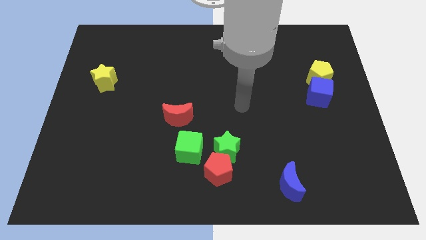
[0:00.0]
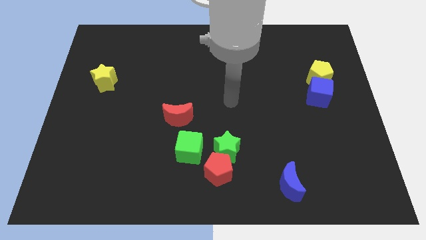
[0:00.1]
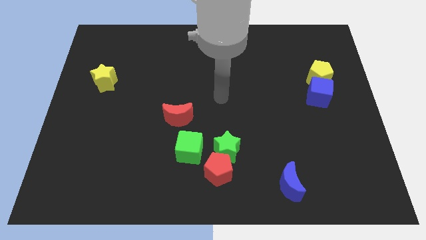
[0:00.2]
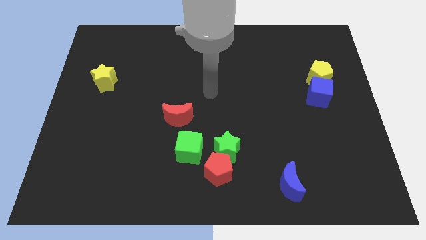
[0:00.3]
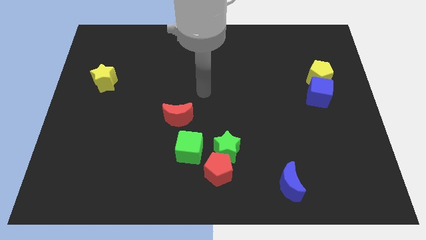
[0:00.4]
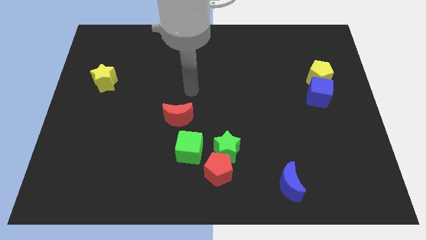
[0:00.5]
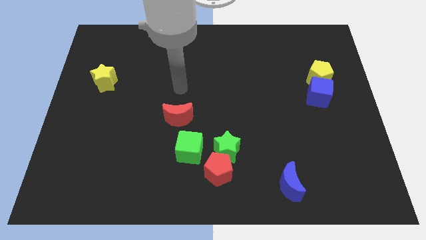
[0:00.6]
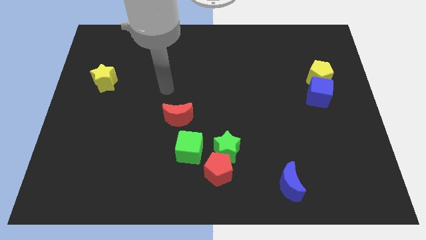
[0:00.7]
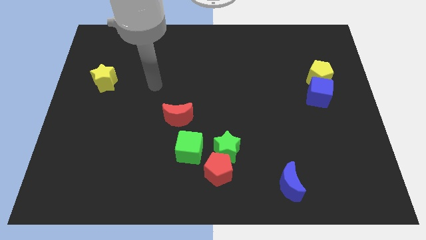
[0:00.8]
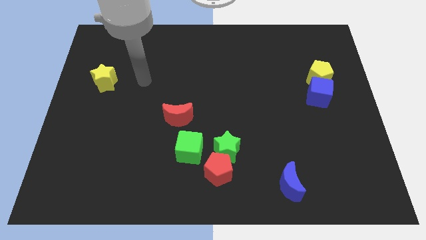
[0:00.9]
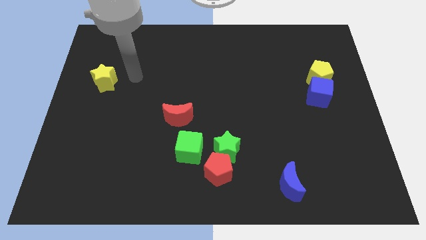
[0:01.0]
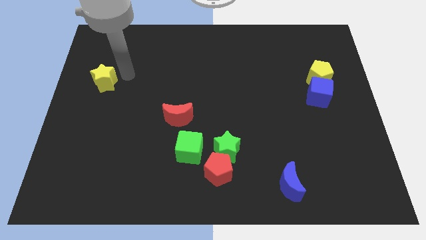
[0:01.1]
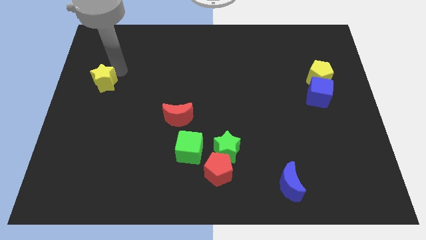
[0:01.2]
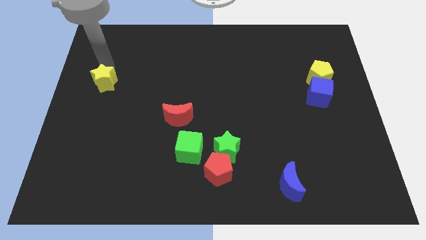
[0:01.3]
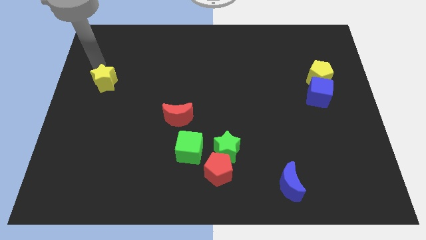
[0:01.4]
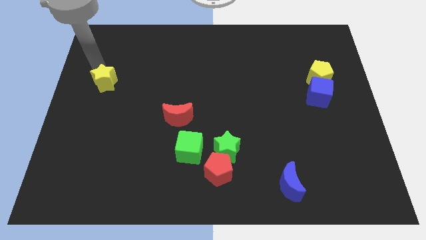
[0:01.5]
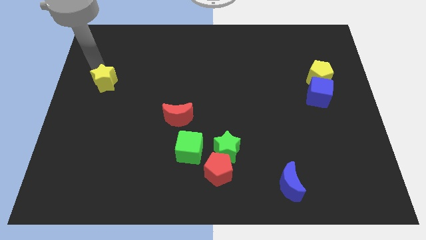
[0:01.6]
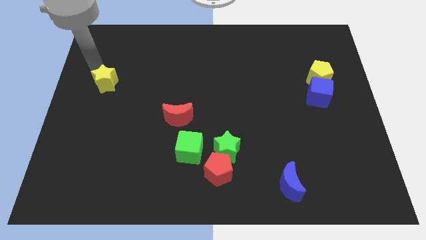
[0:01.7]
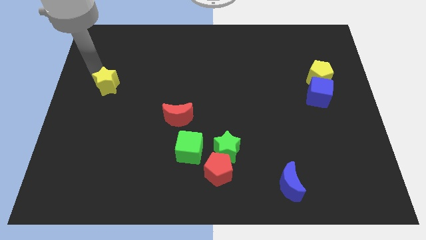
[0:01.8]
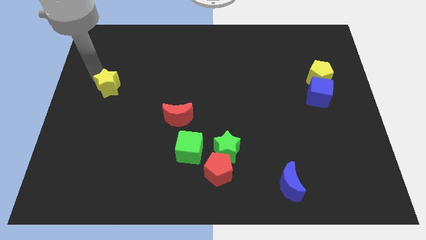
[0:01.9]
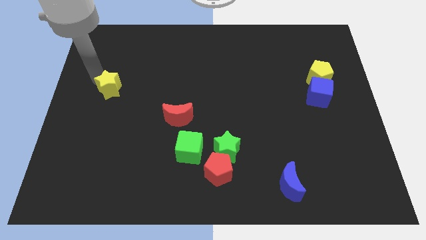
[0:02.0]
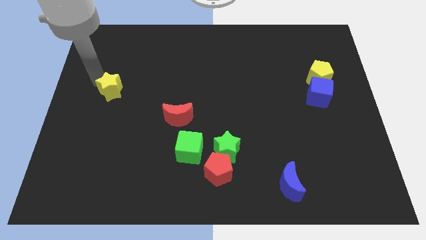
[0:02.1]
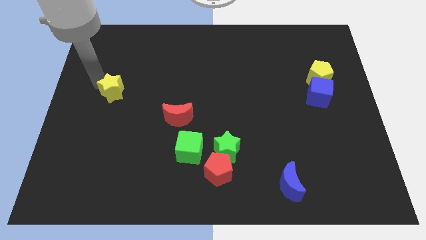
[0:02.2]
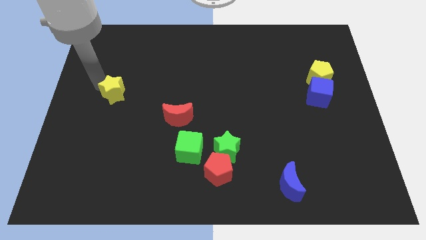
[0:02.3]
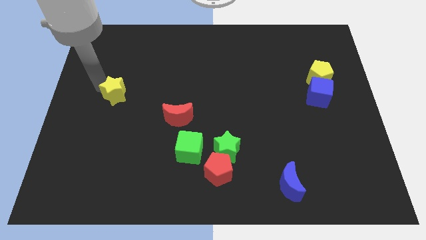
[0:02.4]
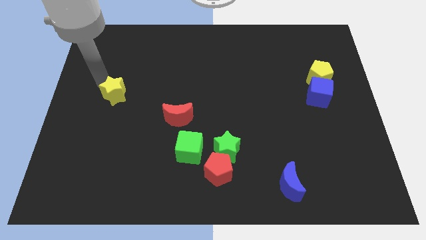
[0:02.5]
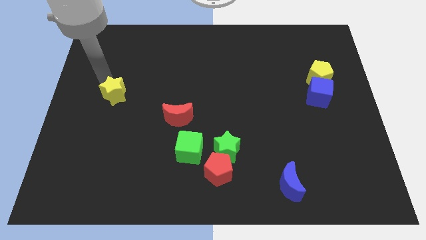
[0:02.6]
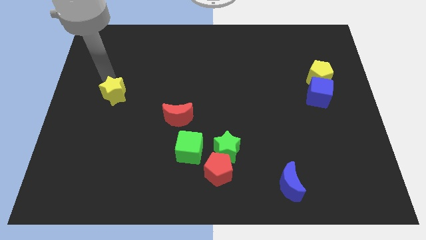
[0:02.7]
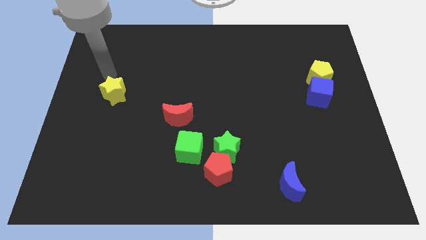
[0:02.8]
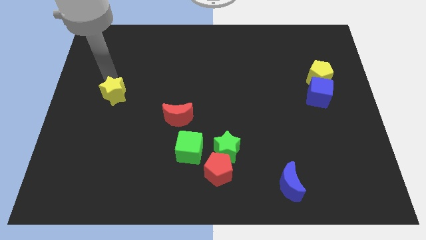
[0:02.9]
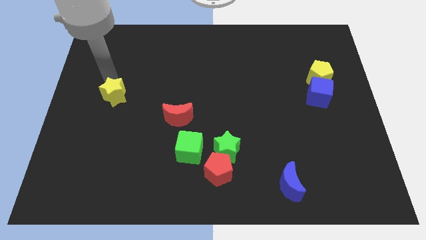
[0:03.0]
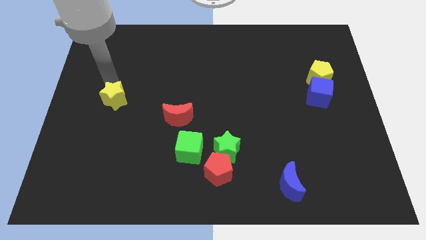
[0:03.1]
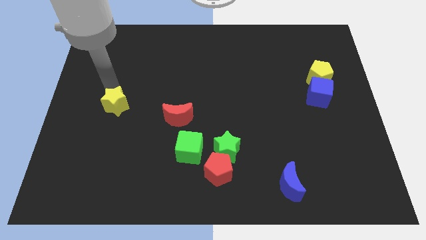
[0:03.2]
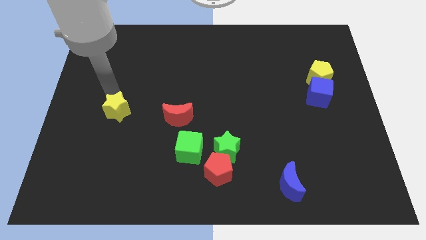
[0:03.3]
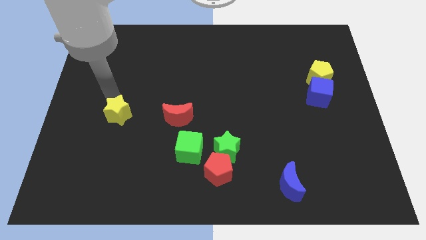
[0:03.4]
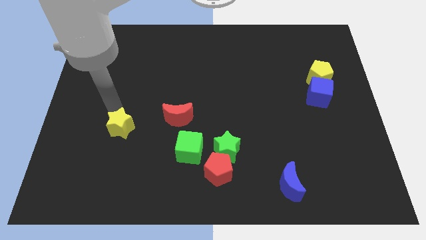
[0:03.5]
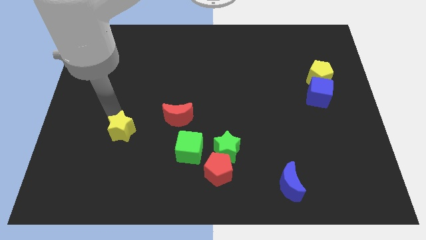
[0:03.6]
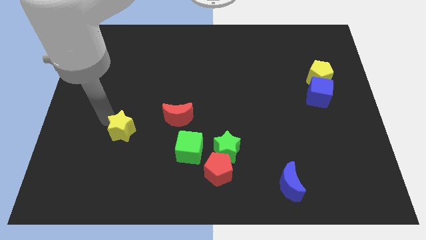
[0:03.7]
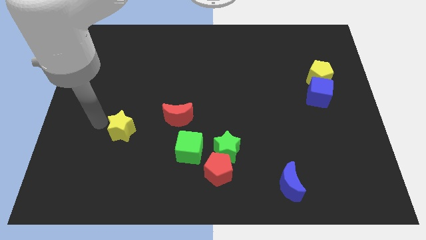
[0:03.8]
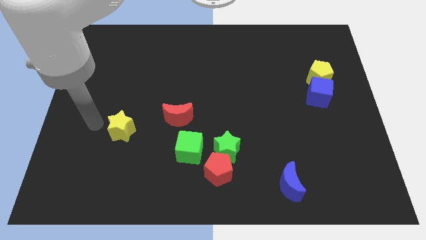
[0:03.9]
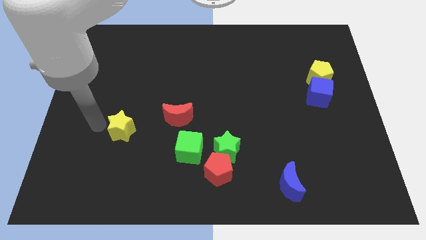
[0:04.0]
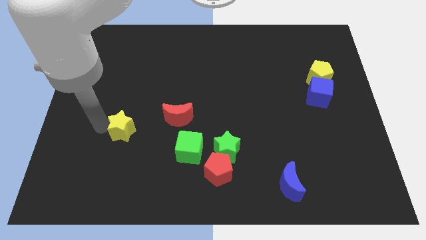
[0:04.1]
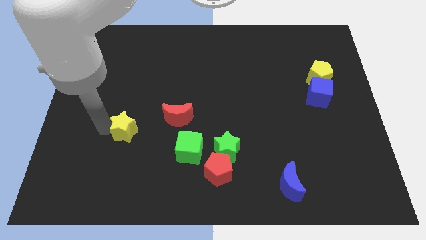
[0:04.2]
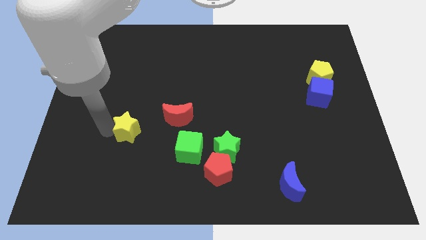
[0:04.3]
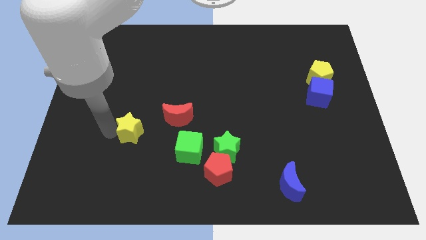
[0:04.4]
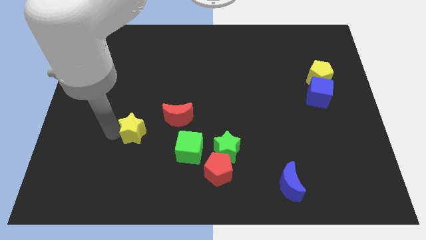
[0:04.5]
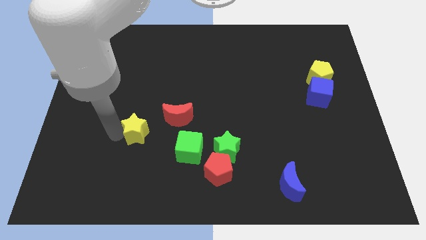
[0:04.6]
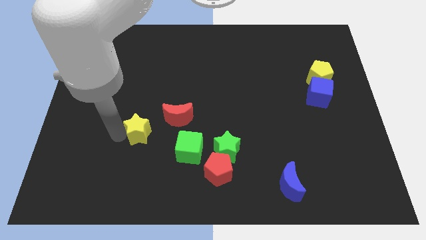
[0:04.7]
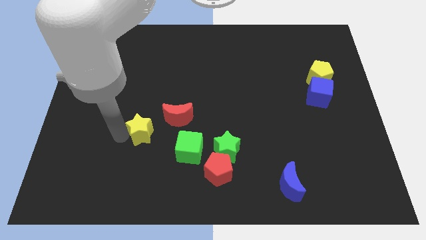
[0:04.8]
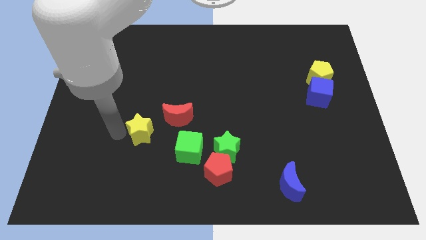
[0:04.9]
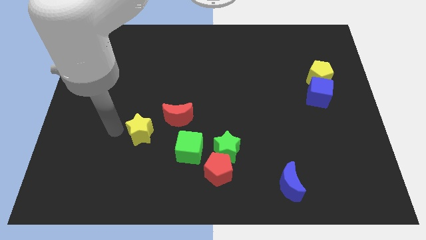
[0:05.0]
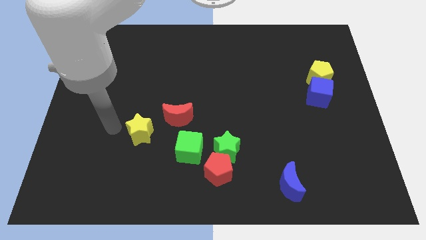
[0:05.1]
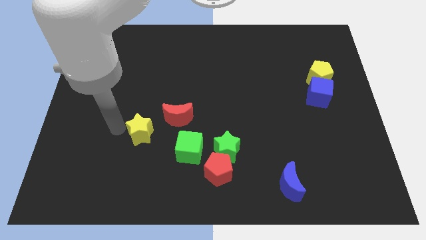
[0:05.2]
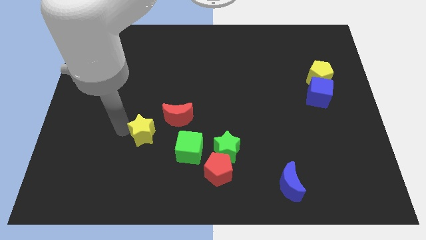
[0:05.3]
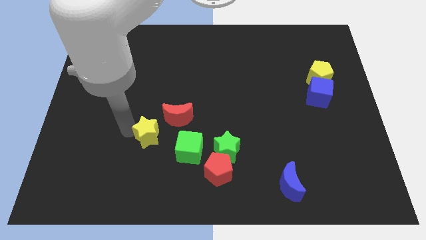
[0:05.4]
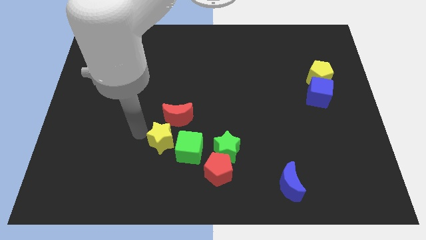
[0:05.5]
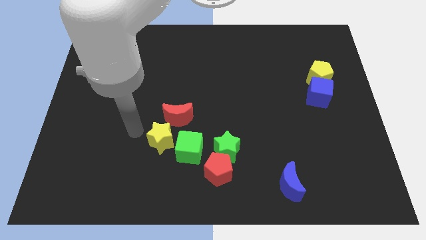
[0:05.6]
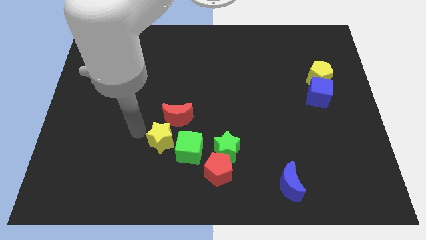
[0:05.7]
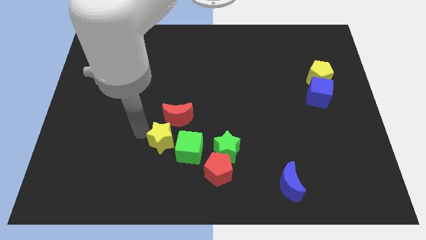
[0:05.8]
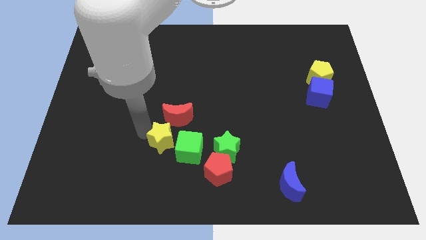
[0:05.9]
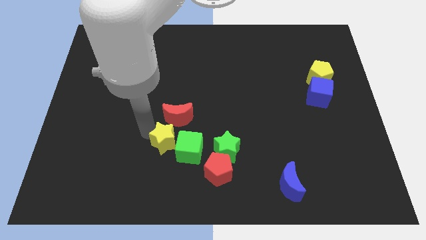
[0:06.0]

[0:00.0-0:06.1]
move the yellow star close to the green cube
